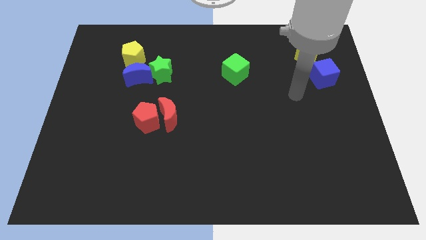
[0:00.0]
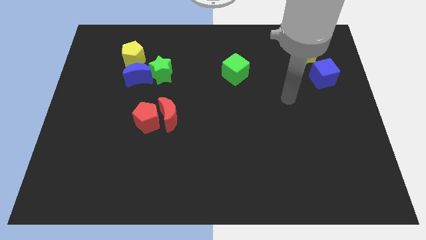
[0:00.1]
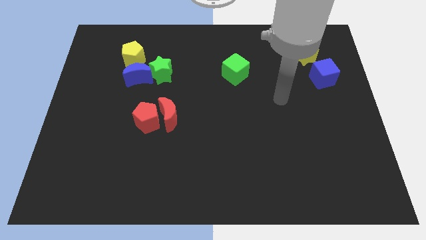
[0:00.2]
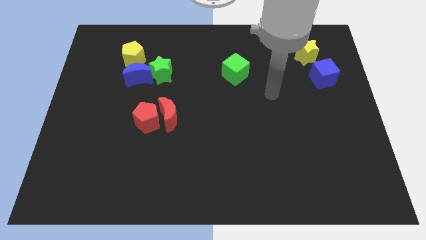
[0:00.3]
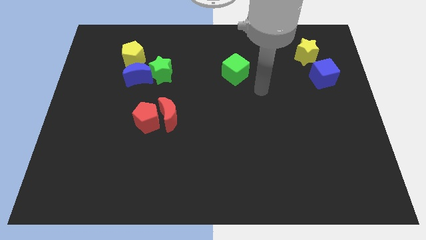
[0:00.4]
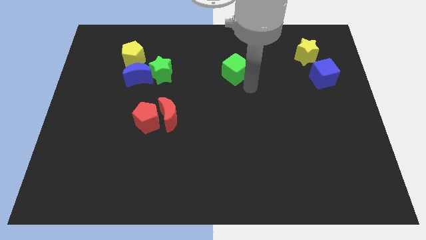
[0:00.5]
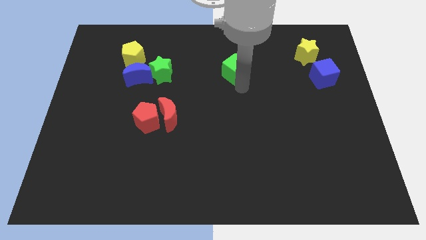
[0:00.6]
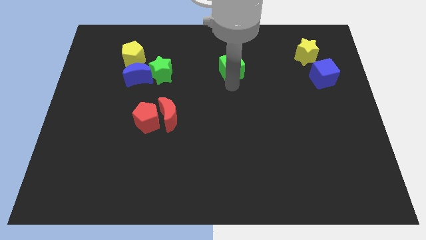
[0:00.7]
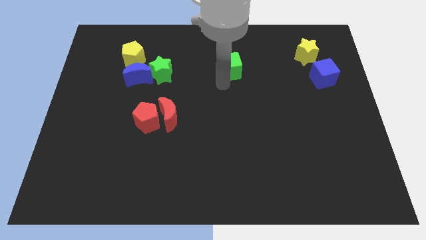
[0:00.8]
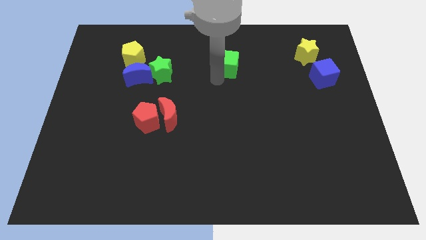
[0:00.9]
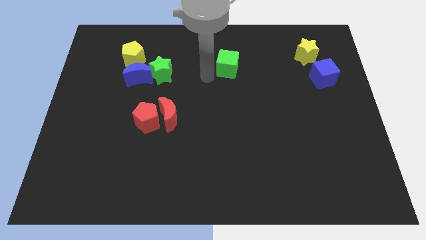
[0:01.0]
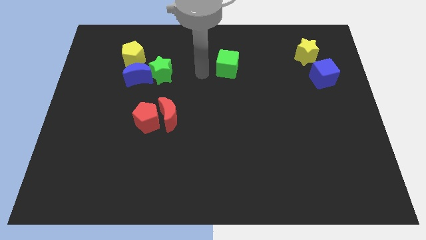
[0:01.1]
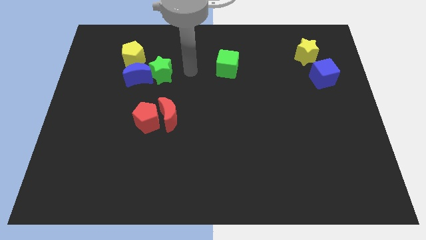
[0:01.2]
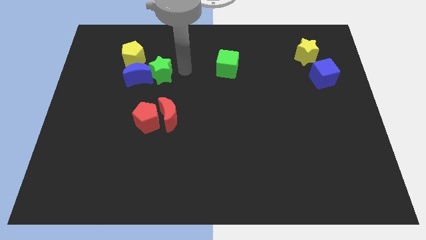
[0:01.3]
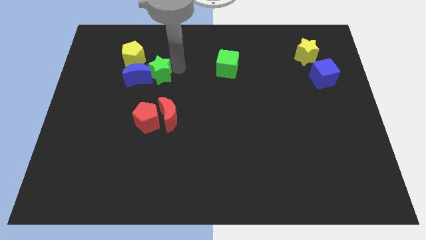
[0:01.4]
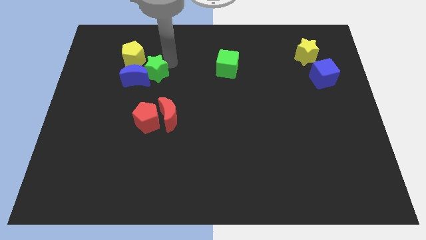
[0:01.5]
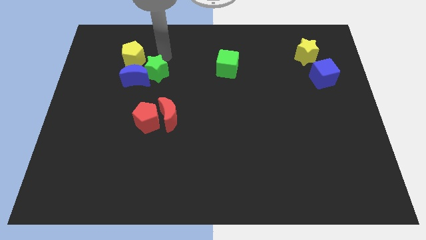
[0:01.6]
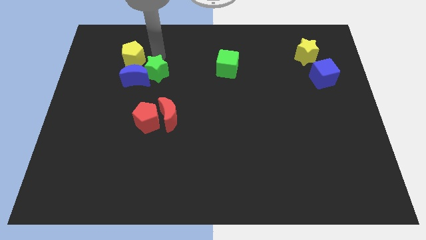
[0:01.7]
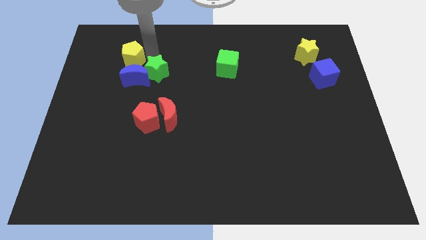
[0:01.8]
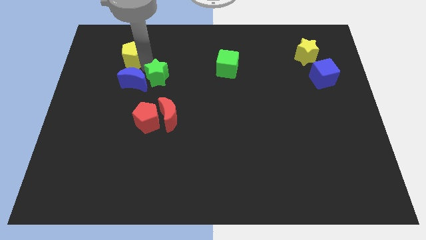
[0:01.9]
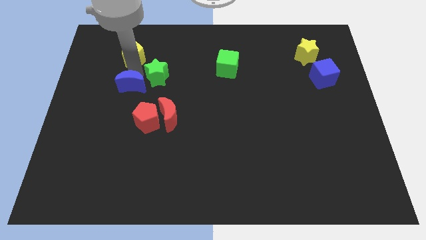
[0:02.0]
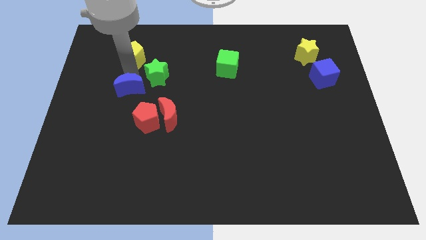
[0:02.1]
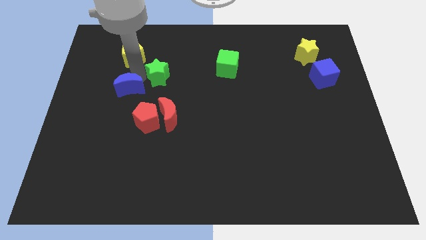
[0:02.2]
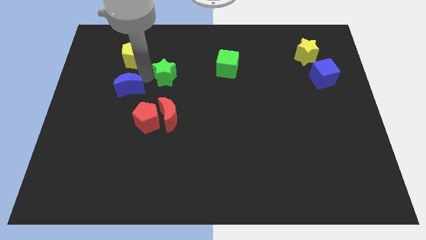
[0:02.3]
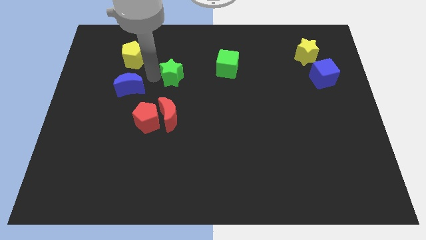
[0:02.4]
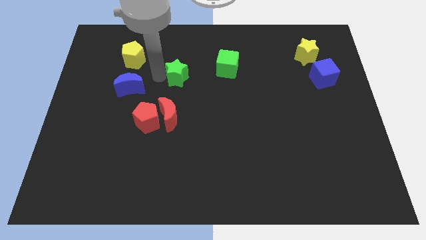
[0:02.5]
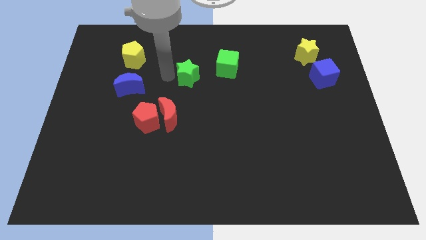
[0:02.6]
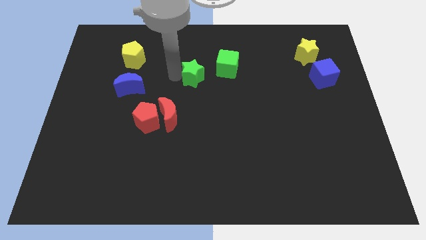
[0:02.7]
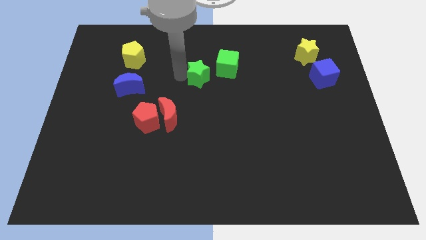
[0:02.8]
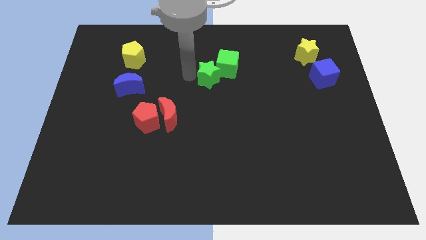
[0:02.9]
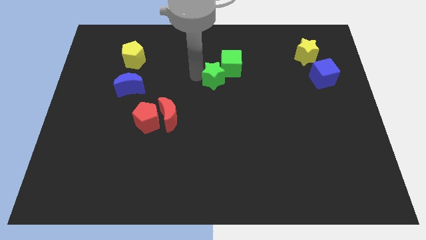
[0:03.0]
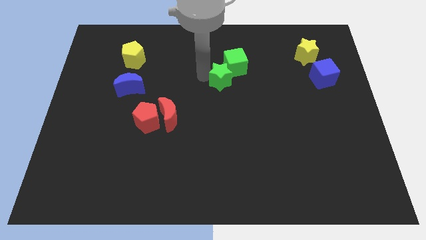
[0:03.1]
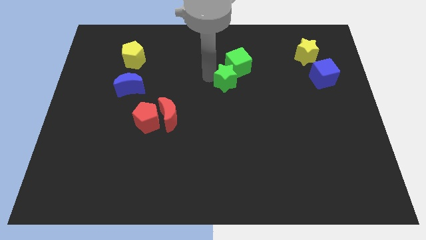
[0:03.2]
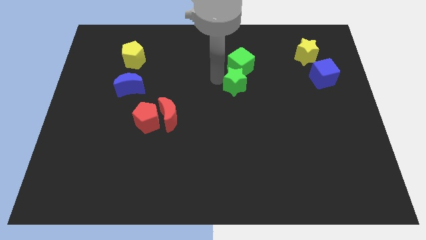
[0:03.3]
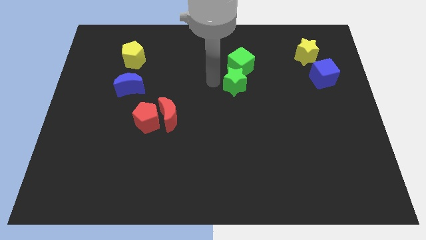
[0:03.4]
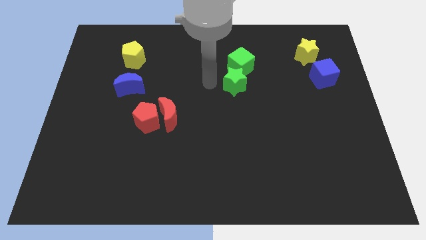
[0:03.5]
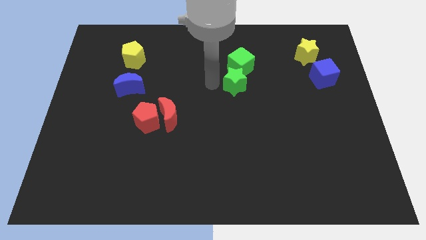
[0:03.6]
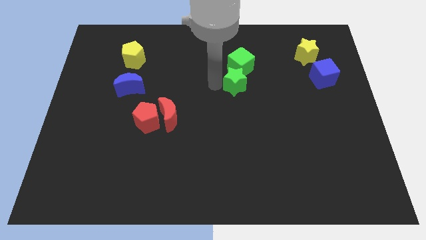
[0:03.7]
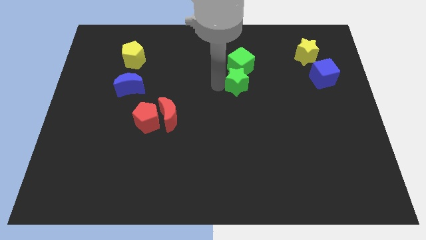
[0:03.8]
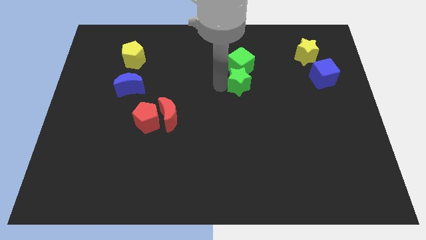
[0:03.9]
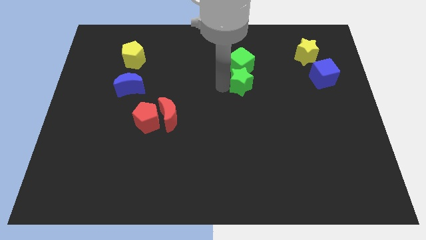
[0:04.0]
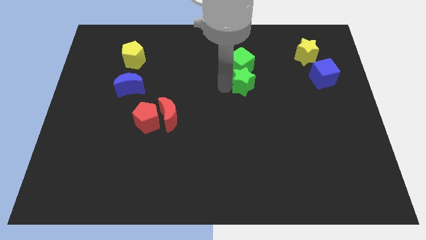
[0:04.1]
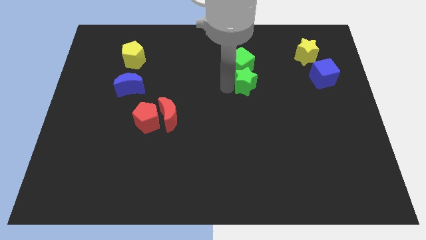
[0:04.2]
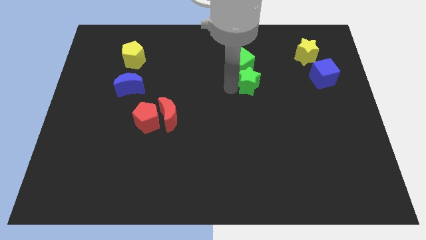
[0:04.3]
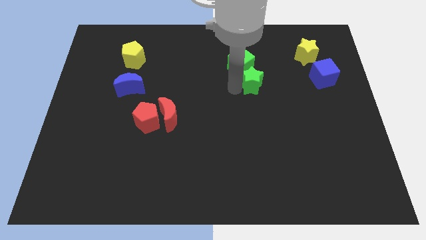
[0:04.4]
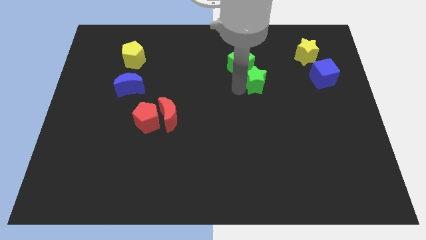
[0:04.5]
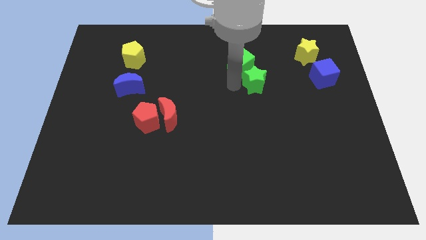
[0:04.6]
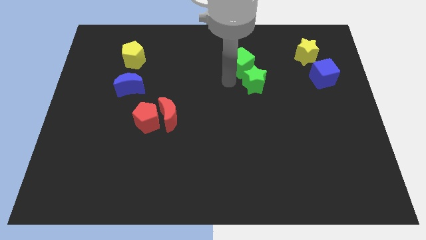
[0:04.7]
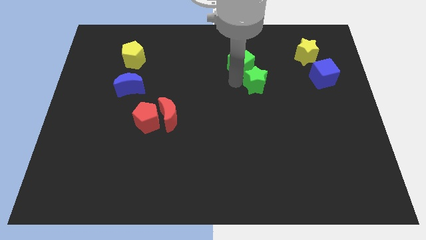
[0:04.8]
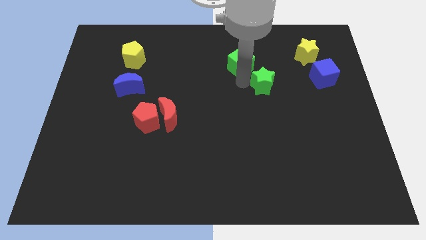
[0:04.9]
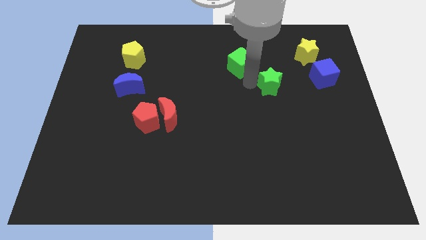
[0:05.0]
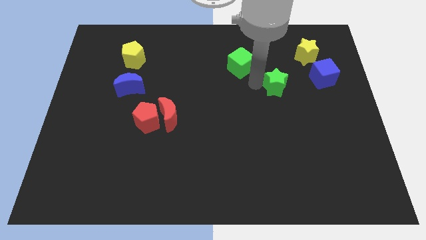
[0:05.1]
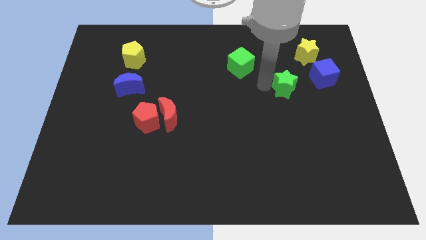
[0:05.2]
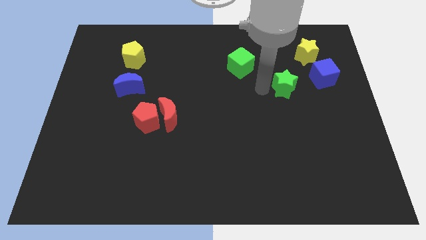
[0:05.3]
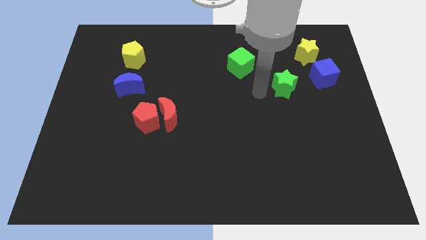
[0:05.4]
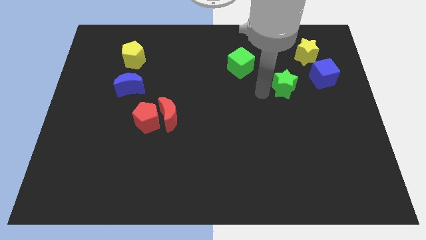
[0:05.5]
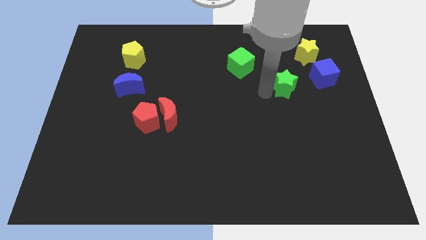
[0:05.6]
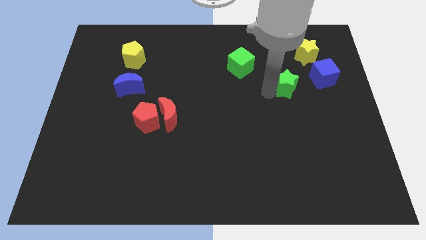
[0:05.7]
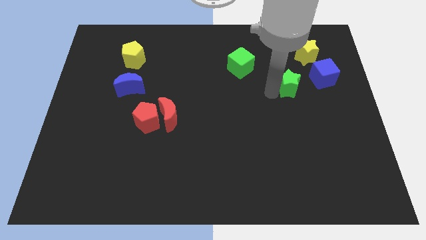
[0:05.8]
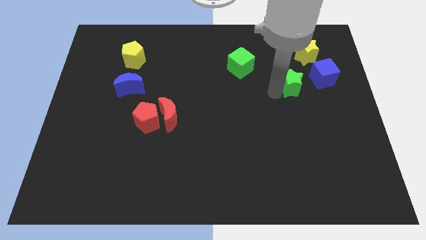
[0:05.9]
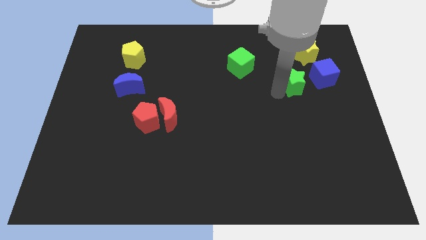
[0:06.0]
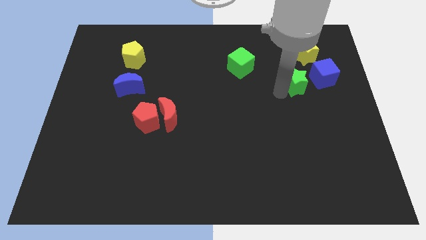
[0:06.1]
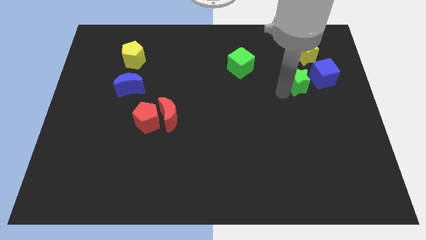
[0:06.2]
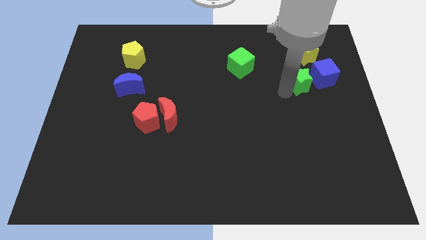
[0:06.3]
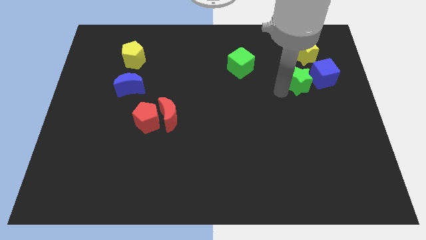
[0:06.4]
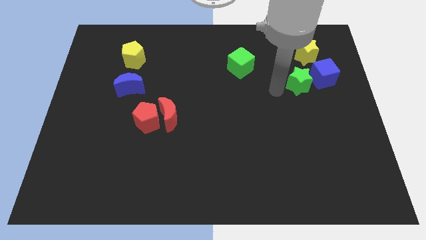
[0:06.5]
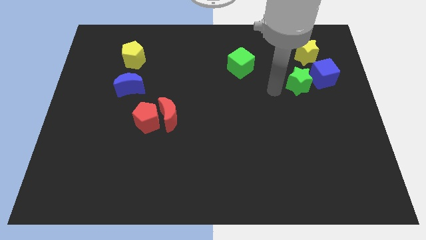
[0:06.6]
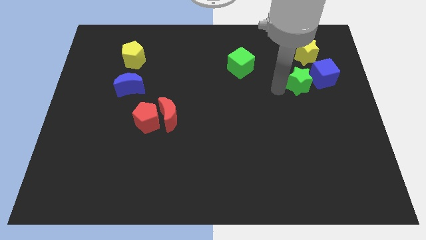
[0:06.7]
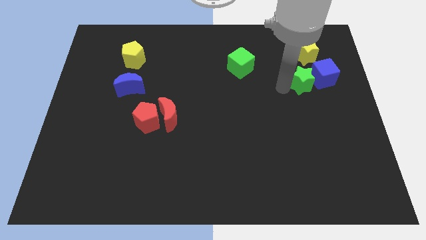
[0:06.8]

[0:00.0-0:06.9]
slide the green star next to the blue cube

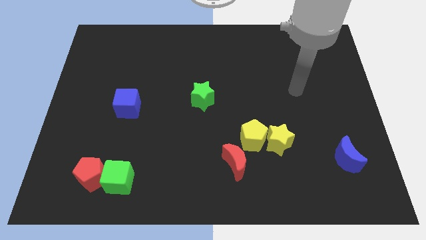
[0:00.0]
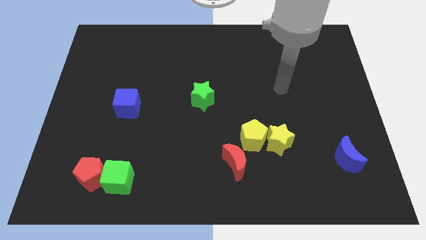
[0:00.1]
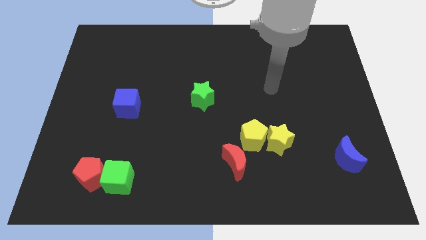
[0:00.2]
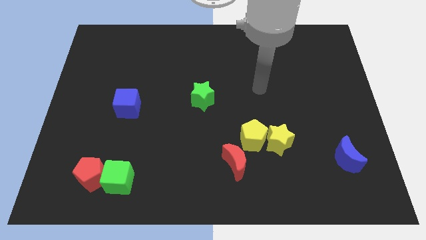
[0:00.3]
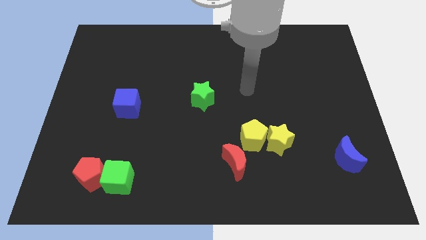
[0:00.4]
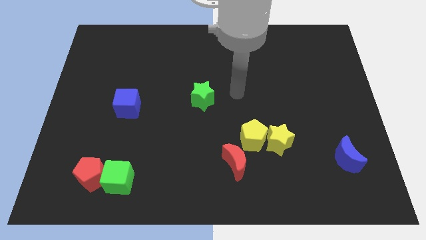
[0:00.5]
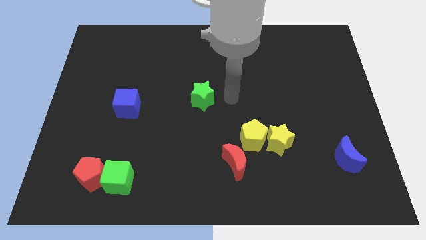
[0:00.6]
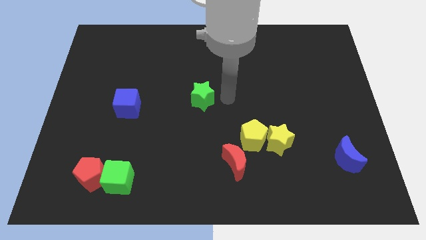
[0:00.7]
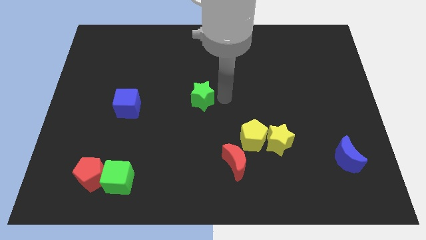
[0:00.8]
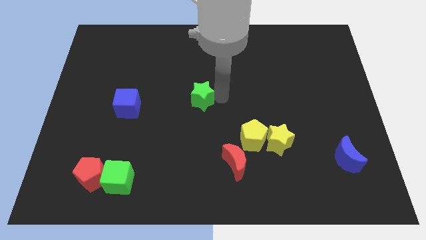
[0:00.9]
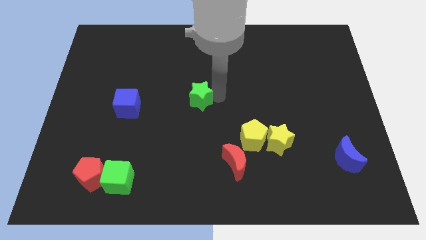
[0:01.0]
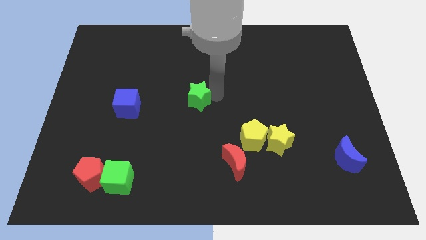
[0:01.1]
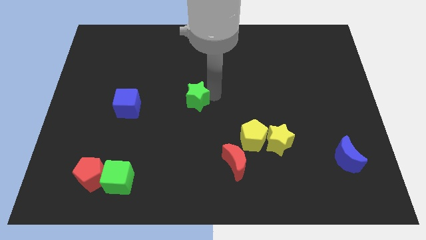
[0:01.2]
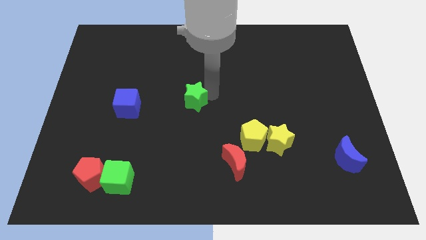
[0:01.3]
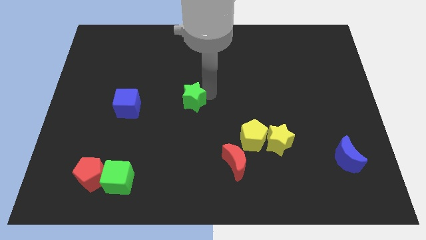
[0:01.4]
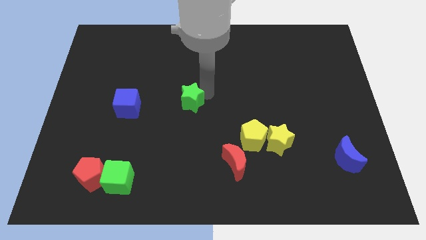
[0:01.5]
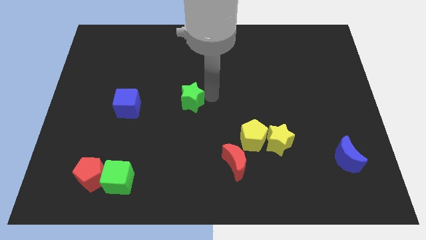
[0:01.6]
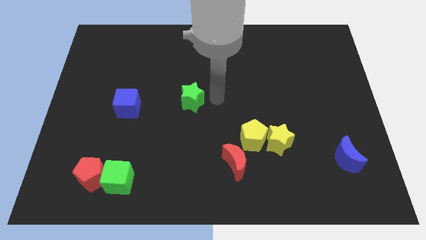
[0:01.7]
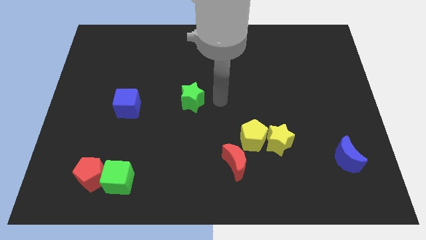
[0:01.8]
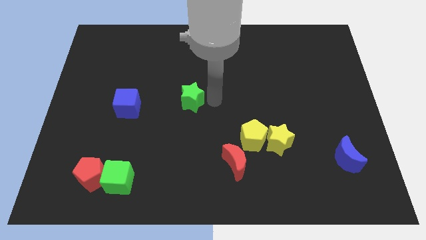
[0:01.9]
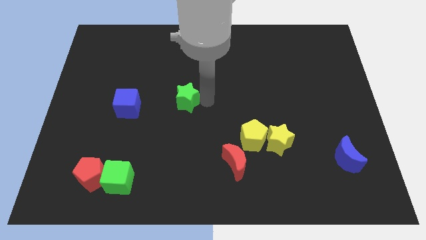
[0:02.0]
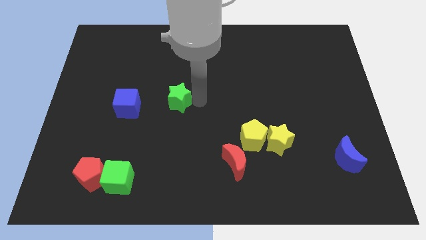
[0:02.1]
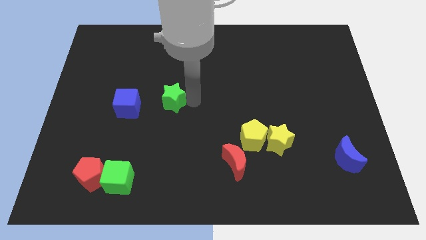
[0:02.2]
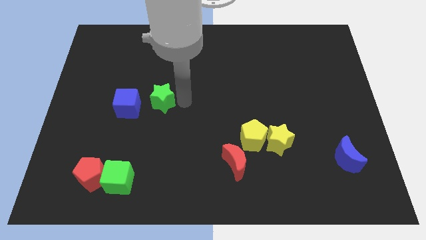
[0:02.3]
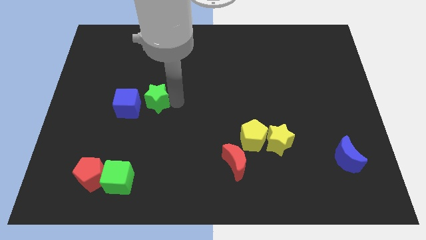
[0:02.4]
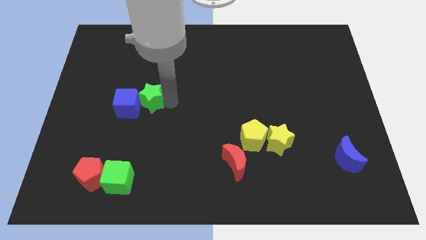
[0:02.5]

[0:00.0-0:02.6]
put the green star to the blue cube
